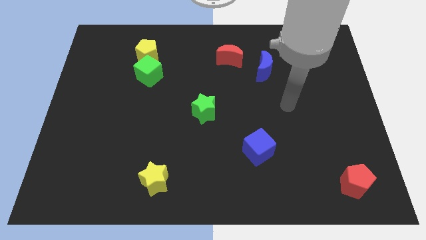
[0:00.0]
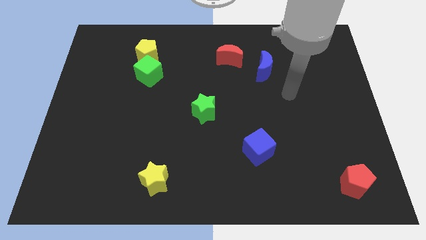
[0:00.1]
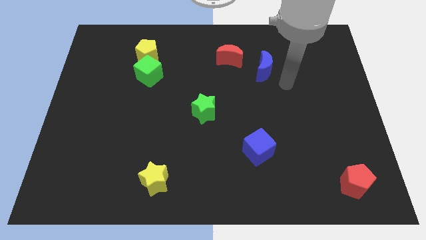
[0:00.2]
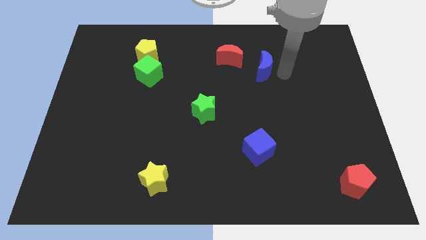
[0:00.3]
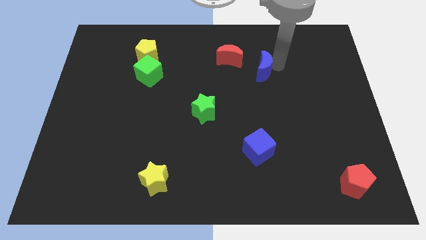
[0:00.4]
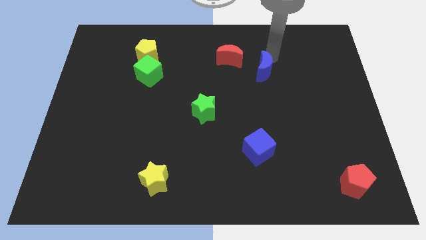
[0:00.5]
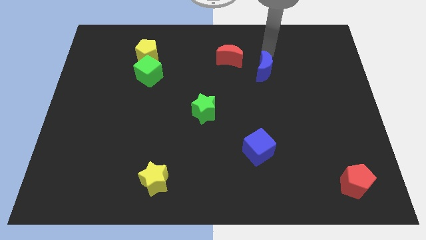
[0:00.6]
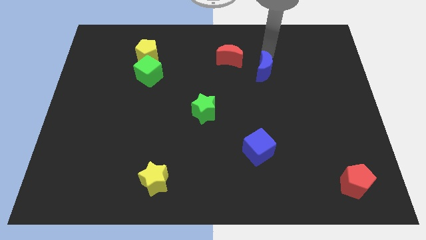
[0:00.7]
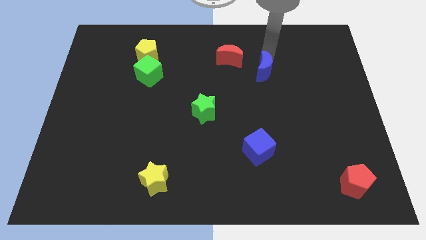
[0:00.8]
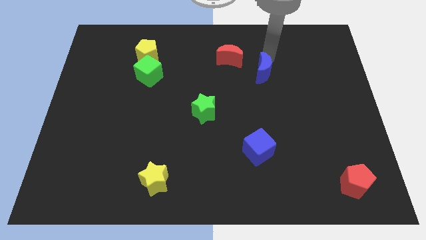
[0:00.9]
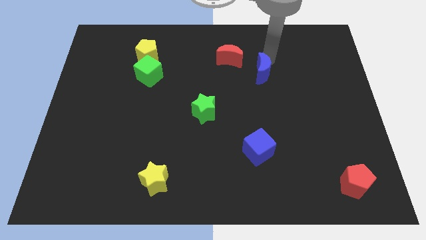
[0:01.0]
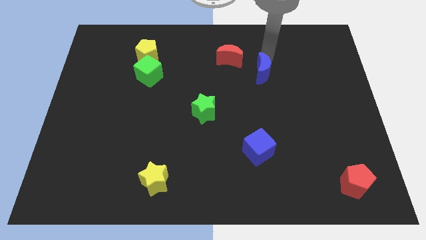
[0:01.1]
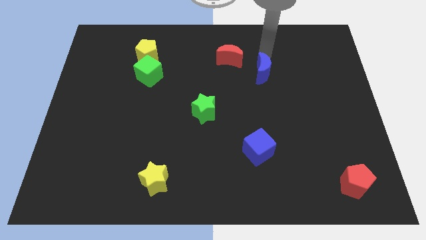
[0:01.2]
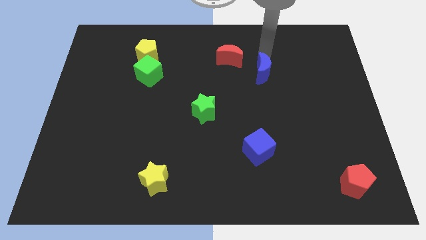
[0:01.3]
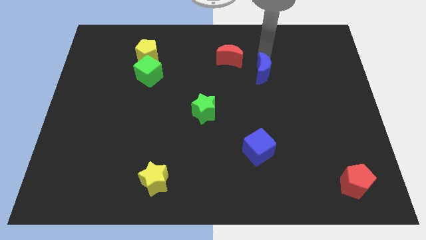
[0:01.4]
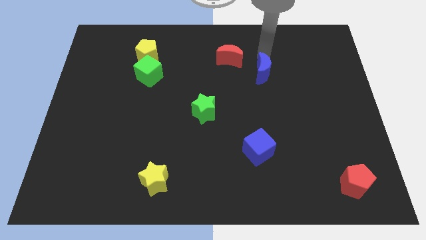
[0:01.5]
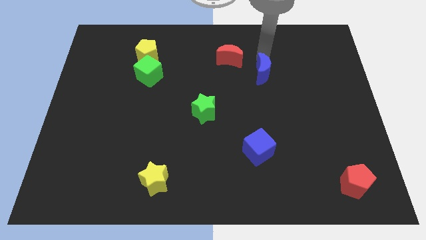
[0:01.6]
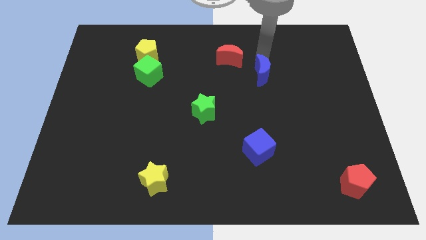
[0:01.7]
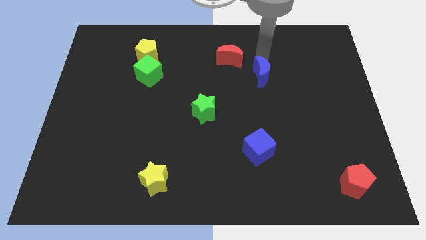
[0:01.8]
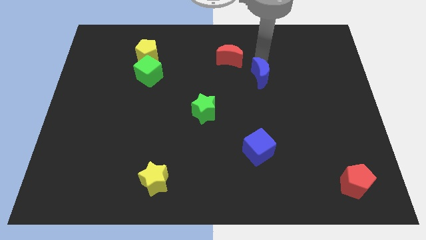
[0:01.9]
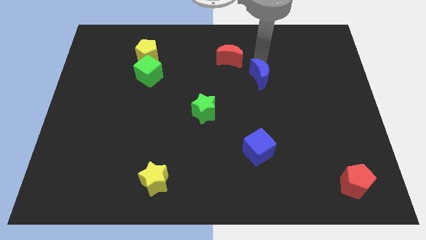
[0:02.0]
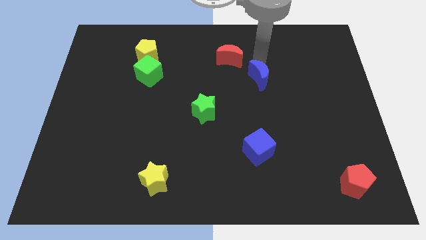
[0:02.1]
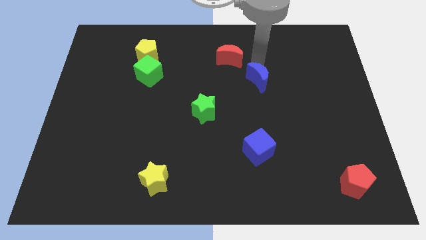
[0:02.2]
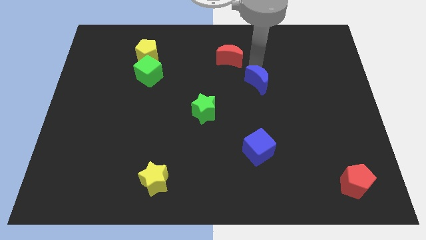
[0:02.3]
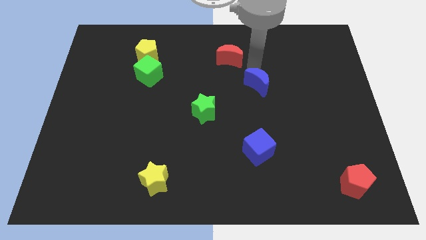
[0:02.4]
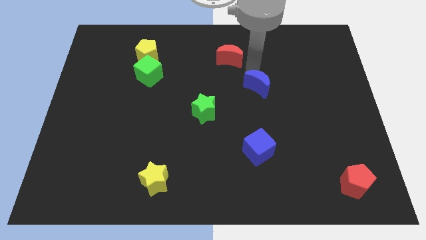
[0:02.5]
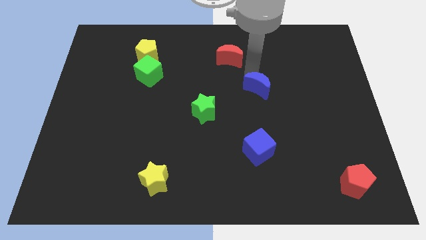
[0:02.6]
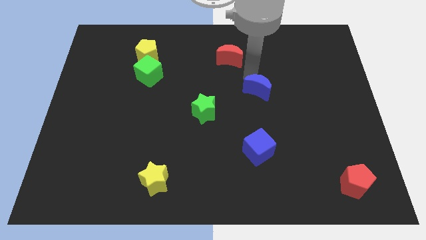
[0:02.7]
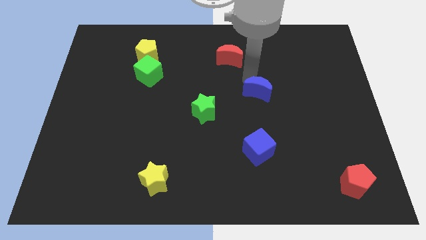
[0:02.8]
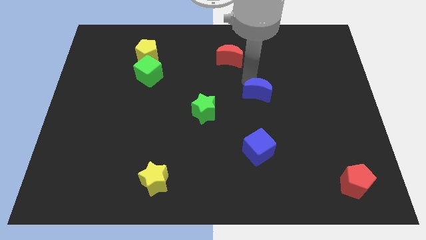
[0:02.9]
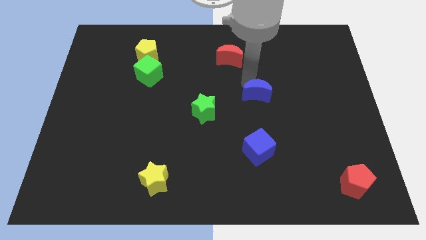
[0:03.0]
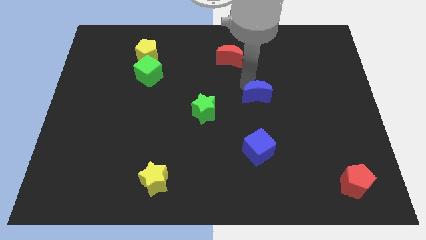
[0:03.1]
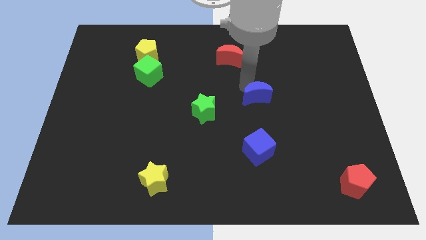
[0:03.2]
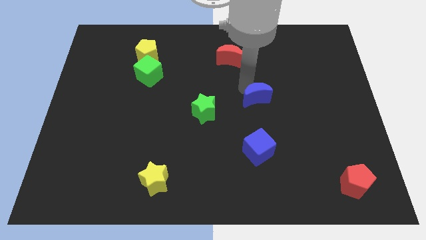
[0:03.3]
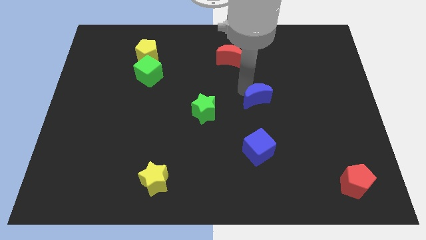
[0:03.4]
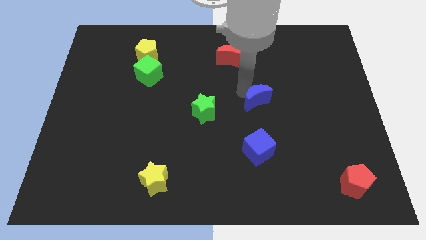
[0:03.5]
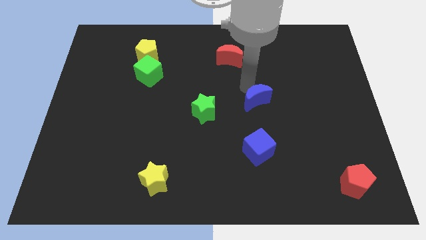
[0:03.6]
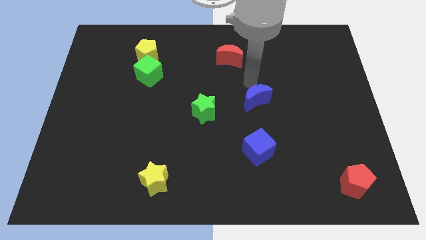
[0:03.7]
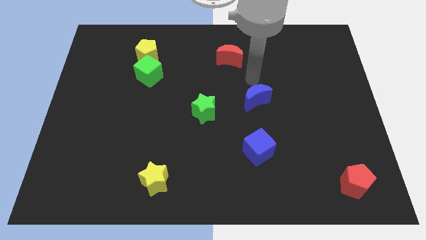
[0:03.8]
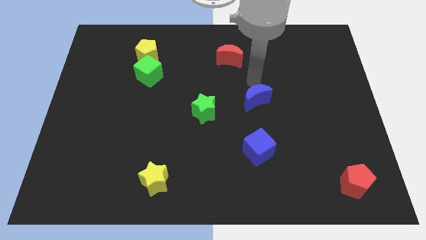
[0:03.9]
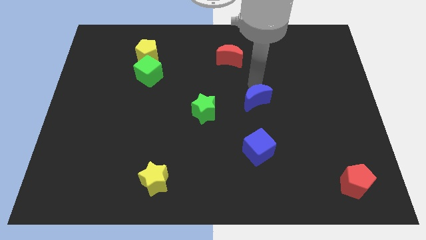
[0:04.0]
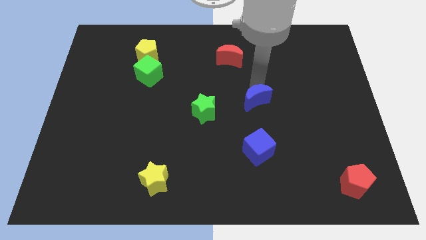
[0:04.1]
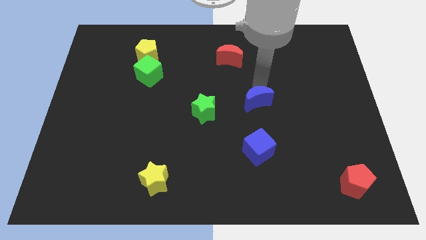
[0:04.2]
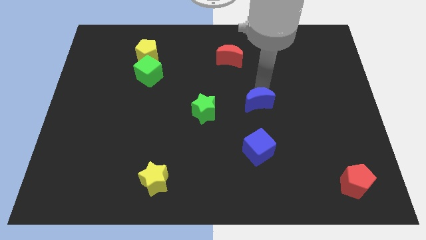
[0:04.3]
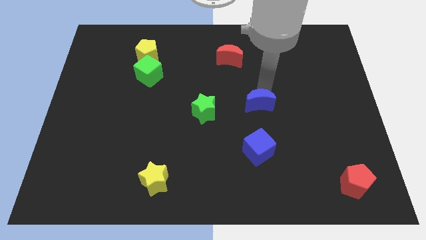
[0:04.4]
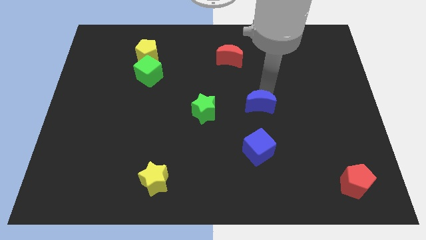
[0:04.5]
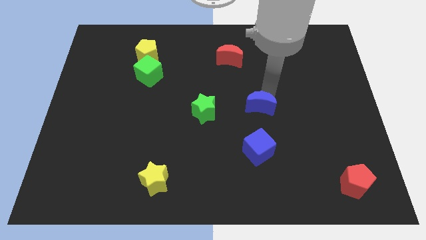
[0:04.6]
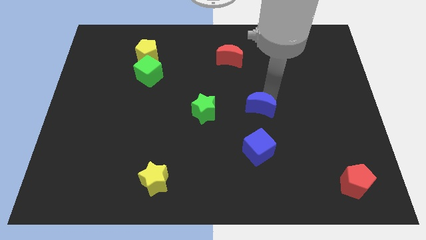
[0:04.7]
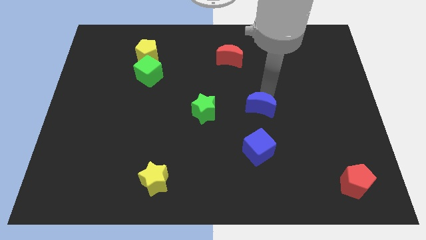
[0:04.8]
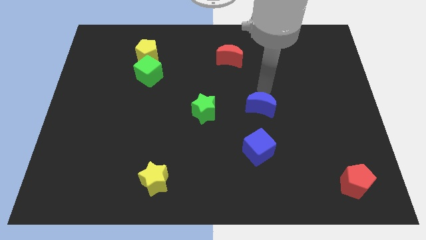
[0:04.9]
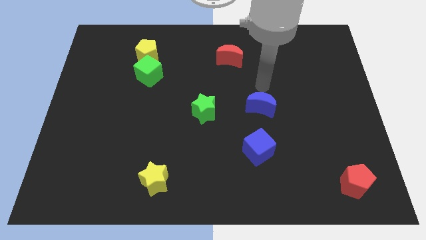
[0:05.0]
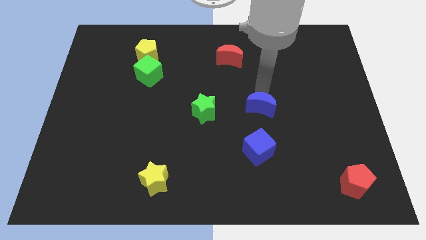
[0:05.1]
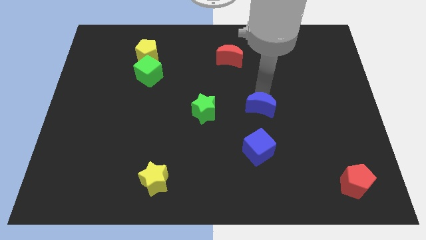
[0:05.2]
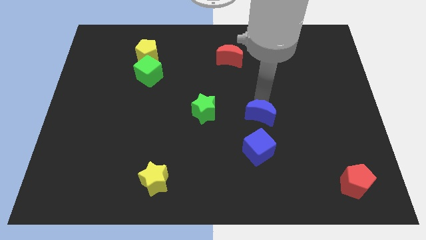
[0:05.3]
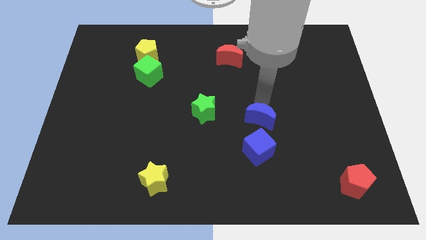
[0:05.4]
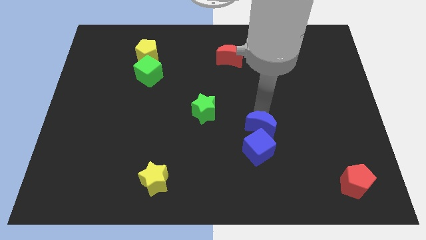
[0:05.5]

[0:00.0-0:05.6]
slide the blue moon next to the blue cube

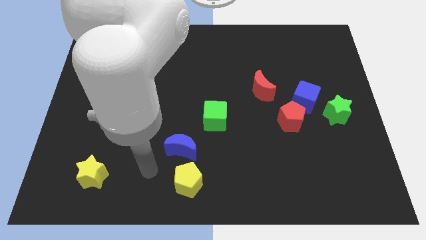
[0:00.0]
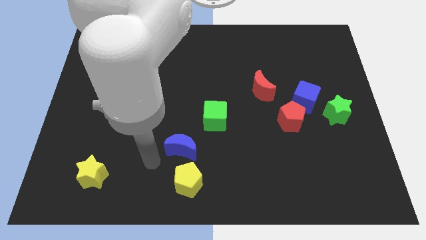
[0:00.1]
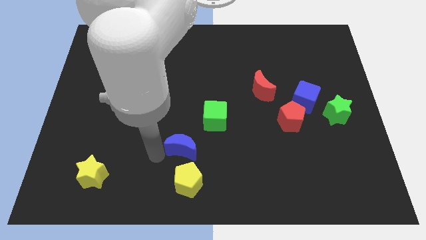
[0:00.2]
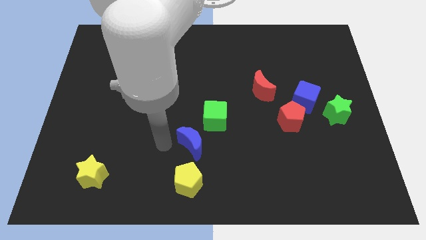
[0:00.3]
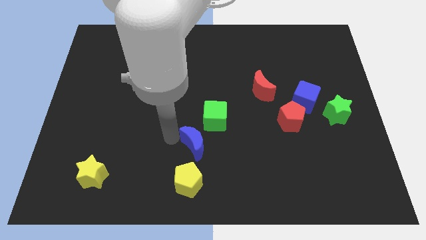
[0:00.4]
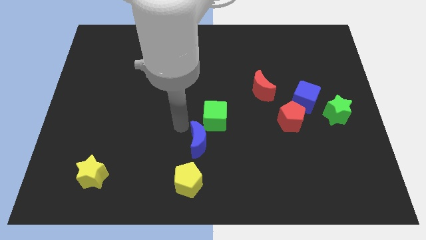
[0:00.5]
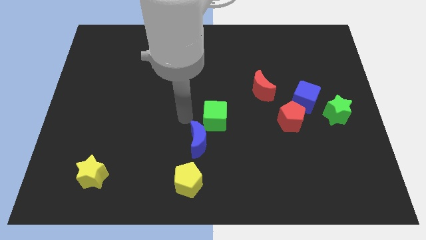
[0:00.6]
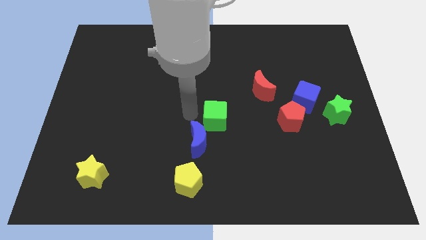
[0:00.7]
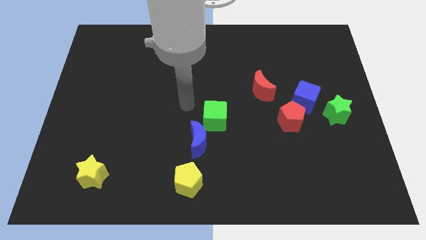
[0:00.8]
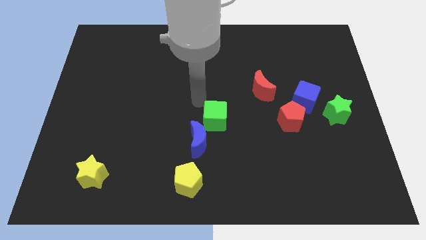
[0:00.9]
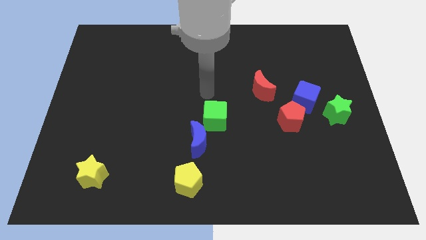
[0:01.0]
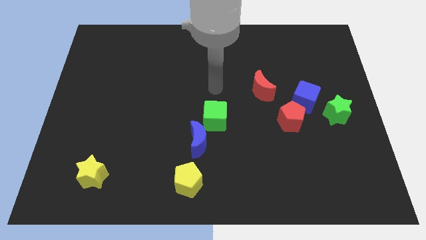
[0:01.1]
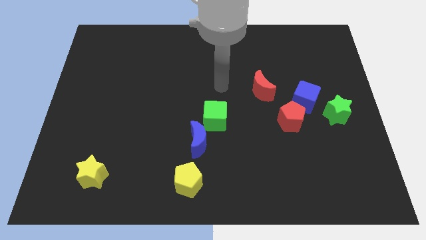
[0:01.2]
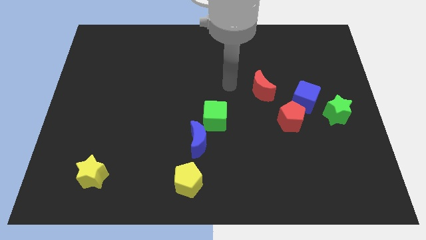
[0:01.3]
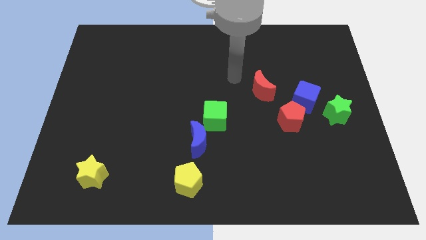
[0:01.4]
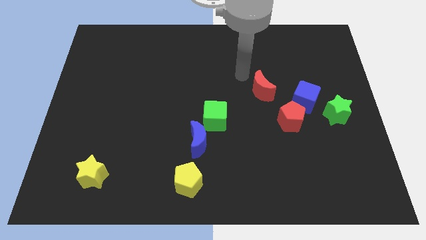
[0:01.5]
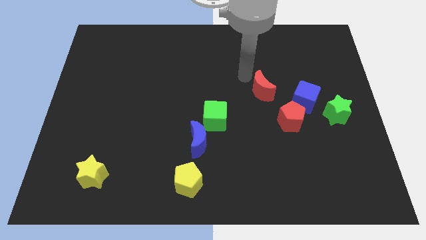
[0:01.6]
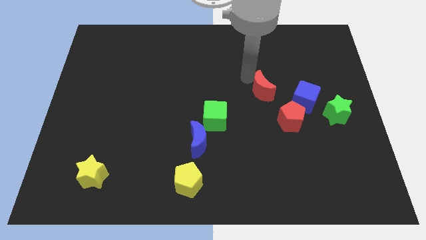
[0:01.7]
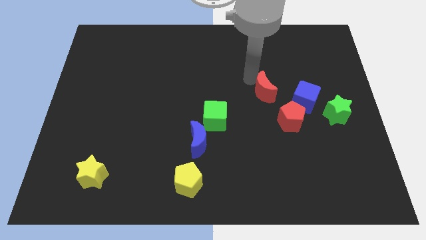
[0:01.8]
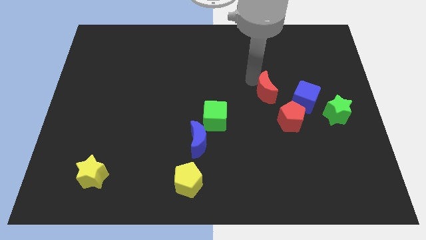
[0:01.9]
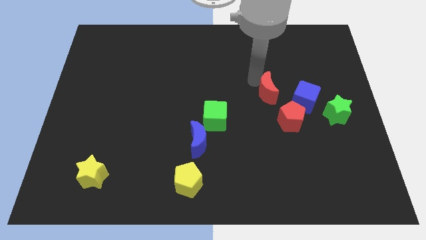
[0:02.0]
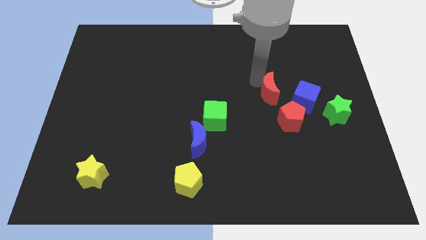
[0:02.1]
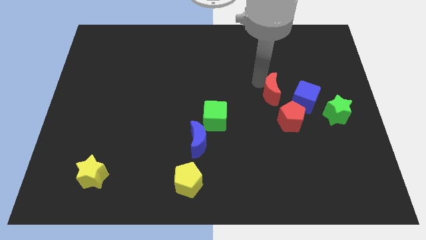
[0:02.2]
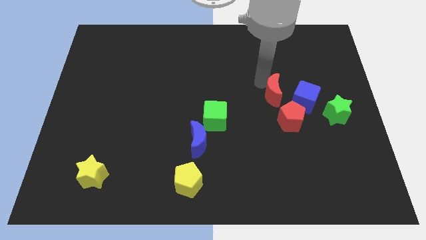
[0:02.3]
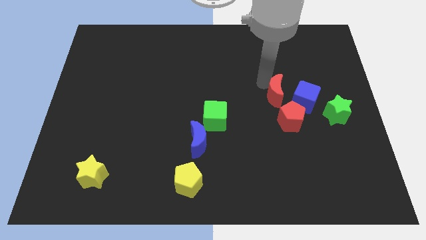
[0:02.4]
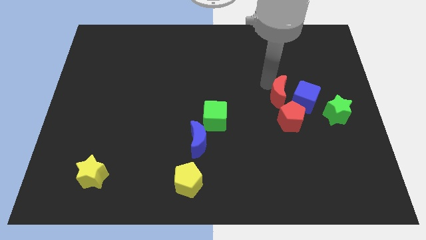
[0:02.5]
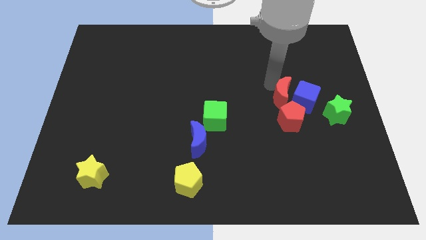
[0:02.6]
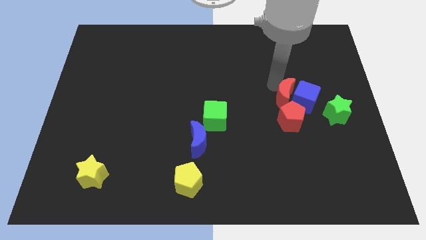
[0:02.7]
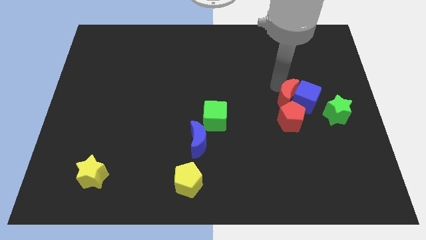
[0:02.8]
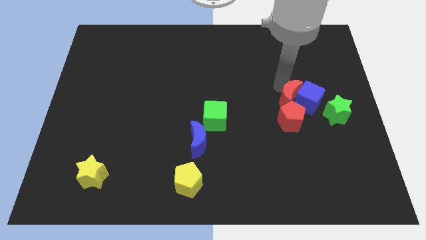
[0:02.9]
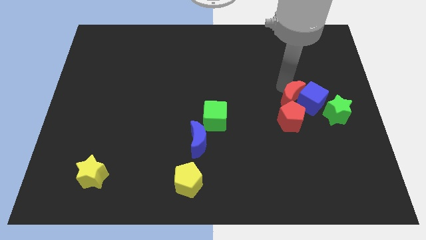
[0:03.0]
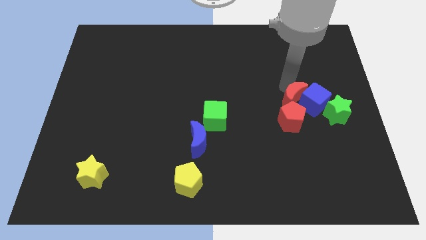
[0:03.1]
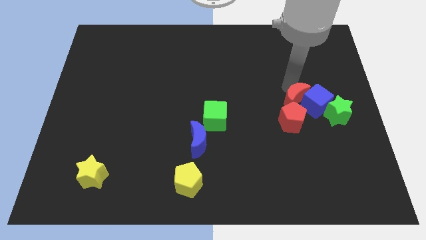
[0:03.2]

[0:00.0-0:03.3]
put the red moon next to the red pentagon
